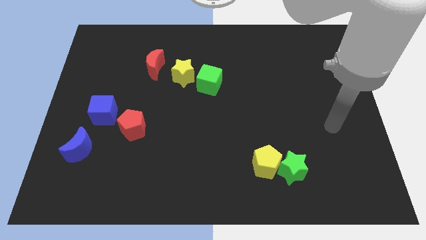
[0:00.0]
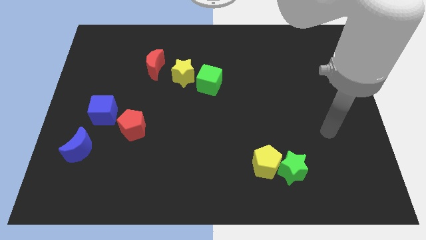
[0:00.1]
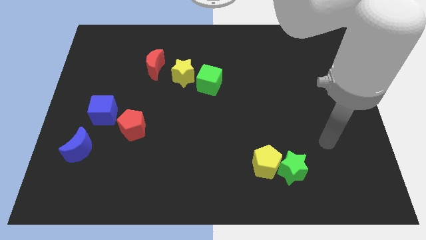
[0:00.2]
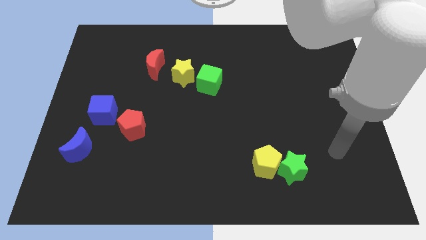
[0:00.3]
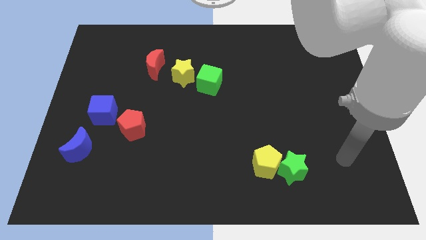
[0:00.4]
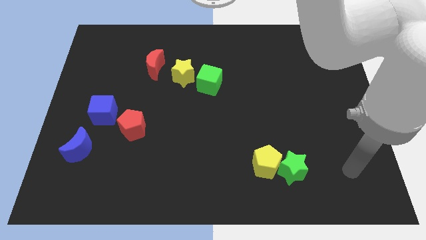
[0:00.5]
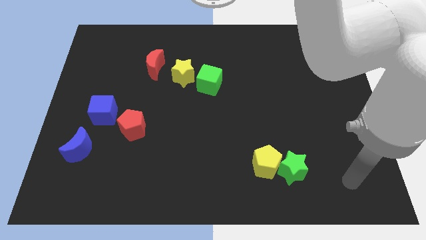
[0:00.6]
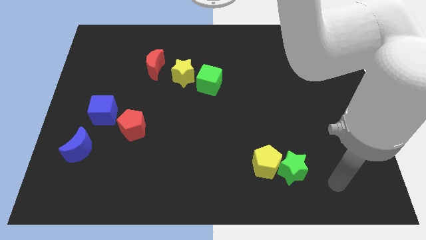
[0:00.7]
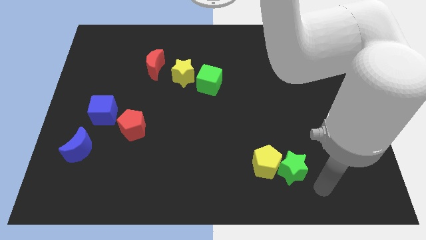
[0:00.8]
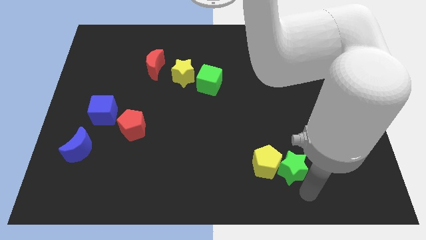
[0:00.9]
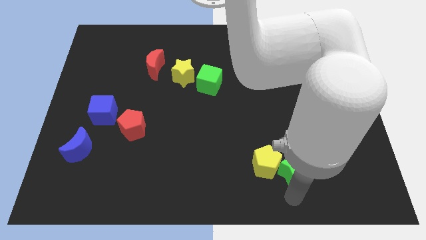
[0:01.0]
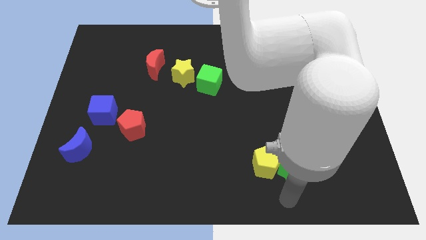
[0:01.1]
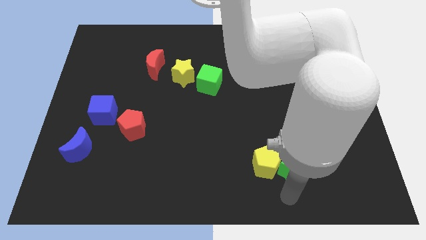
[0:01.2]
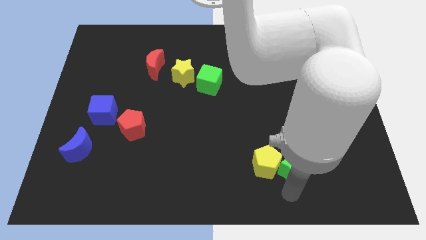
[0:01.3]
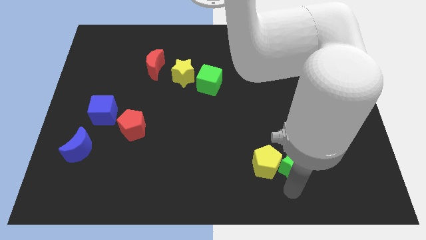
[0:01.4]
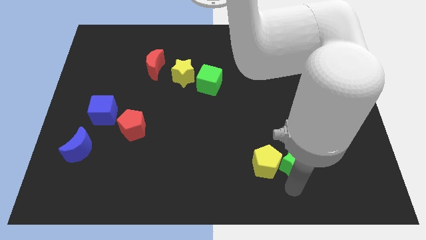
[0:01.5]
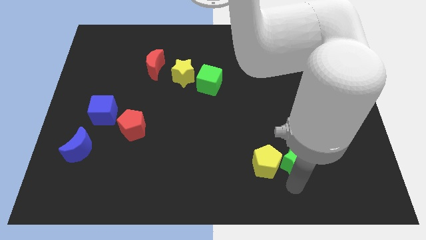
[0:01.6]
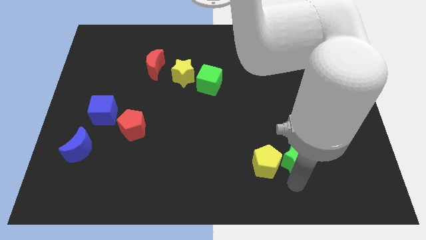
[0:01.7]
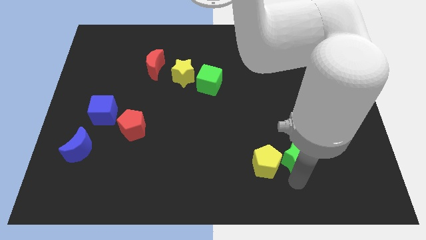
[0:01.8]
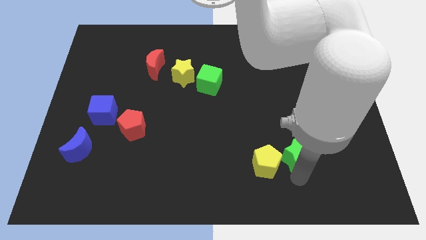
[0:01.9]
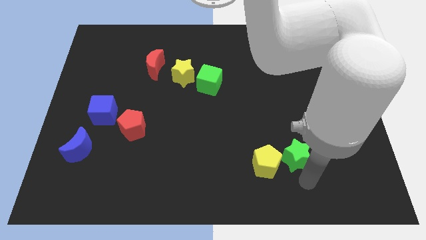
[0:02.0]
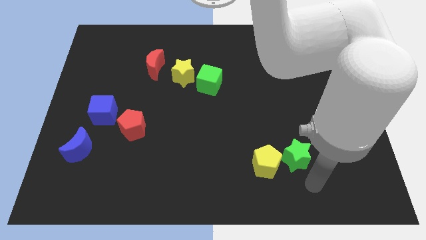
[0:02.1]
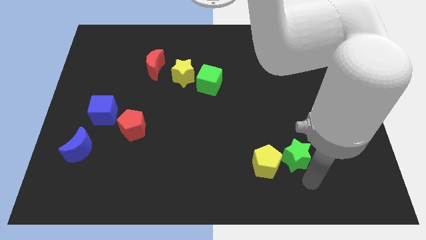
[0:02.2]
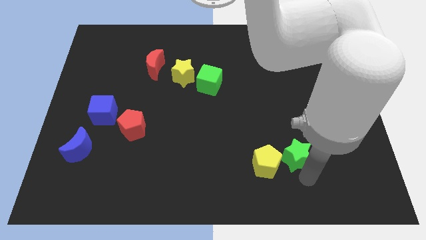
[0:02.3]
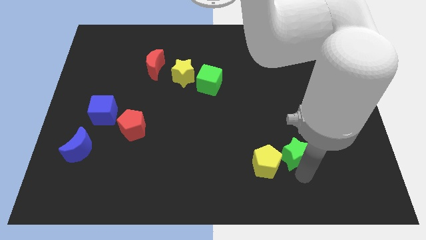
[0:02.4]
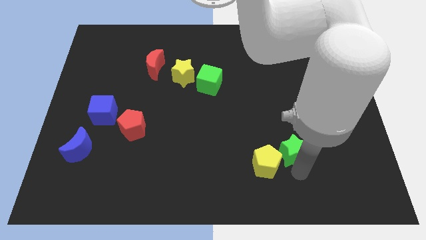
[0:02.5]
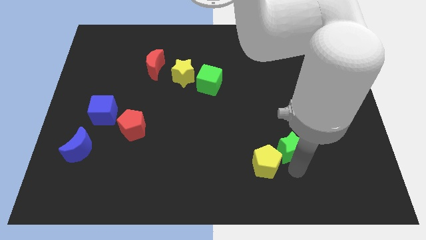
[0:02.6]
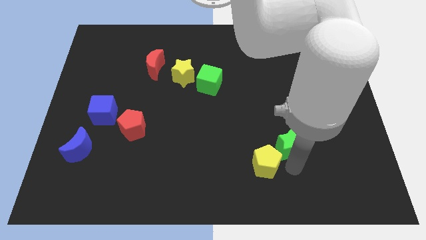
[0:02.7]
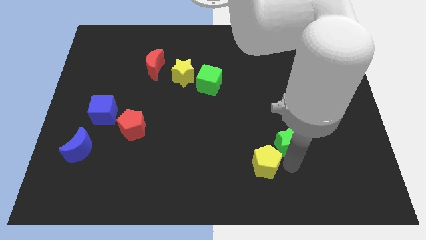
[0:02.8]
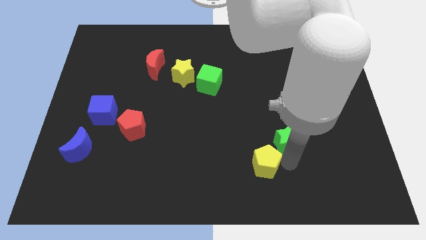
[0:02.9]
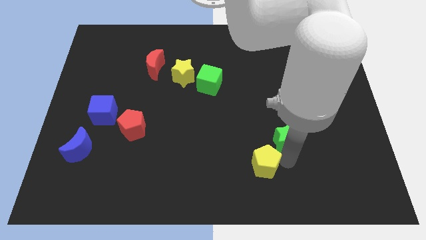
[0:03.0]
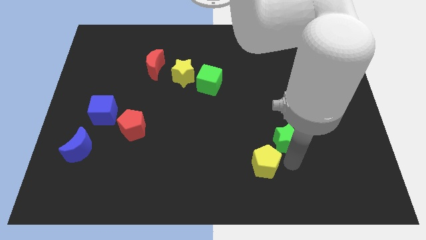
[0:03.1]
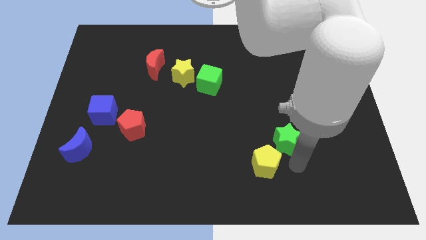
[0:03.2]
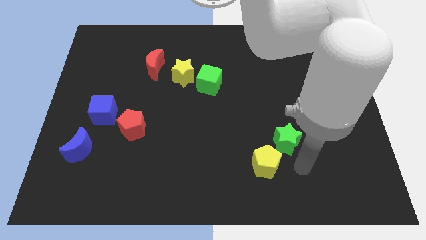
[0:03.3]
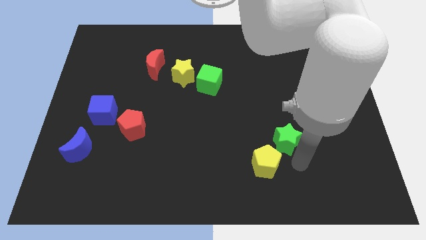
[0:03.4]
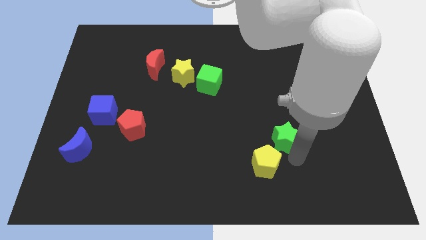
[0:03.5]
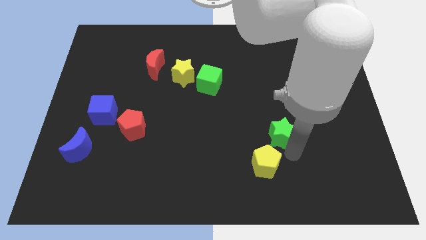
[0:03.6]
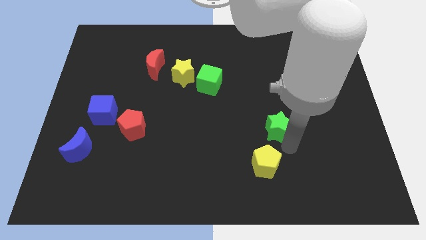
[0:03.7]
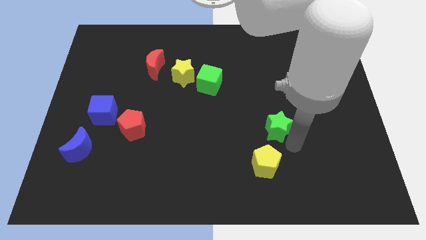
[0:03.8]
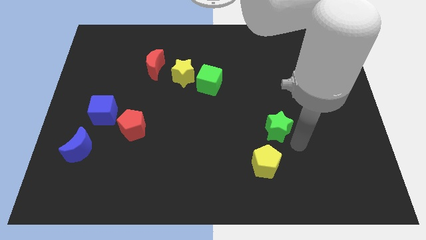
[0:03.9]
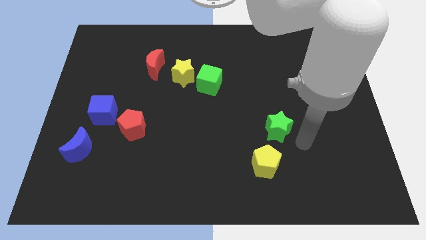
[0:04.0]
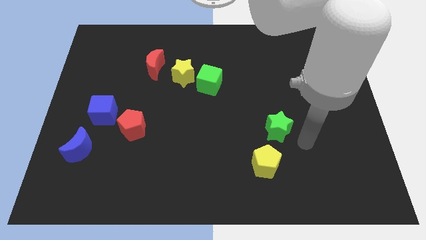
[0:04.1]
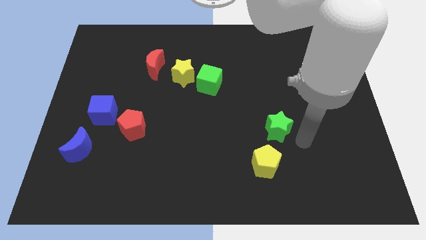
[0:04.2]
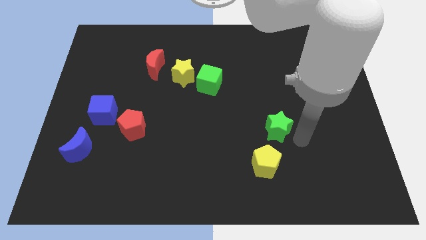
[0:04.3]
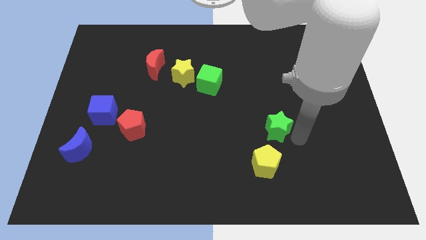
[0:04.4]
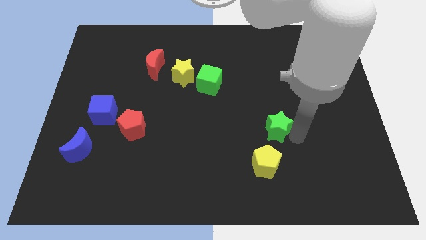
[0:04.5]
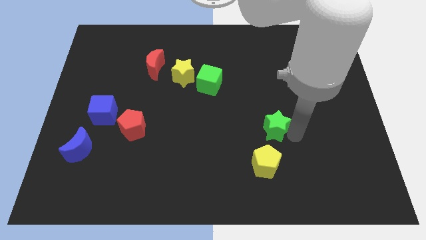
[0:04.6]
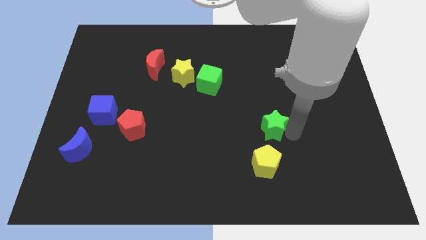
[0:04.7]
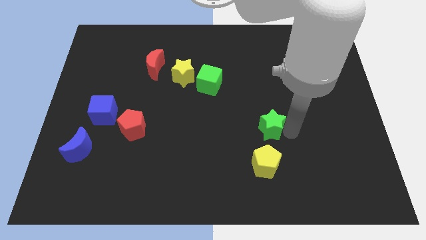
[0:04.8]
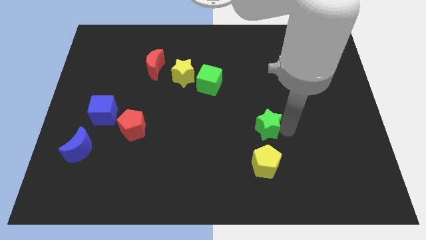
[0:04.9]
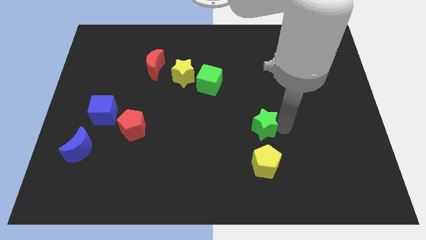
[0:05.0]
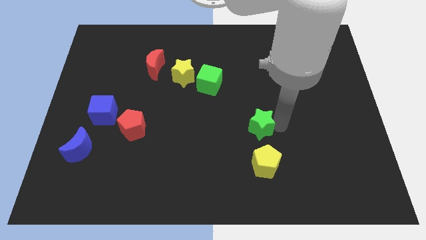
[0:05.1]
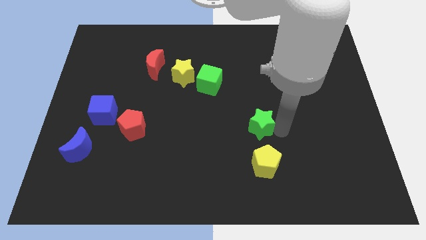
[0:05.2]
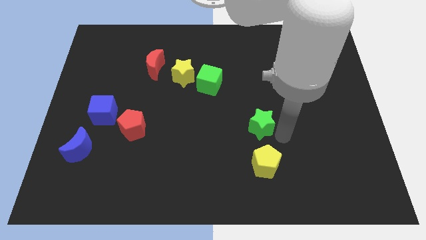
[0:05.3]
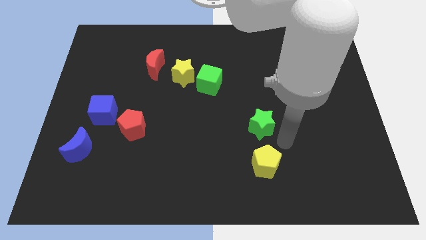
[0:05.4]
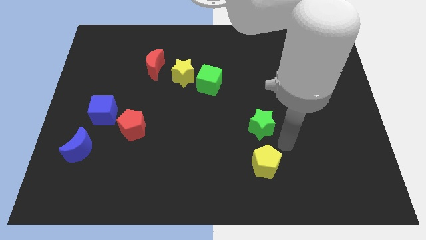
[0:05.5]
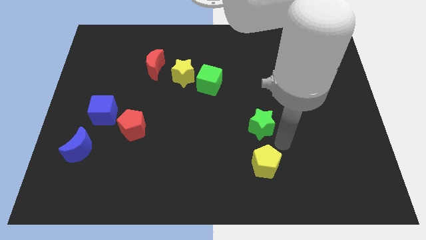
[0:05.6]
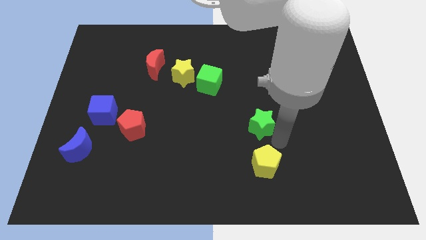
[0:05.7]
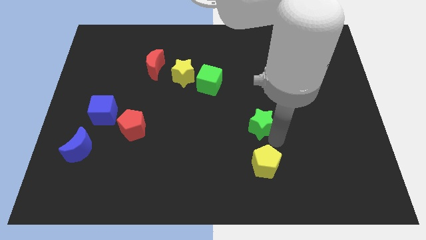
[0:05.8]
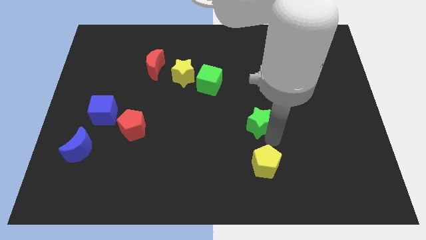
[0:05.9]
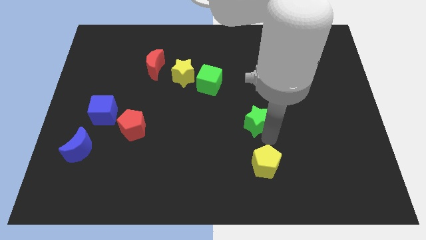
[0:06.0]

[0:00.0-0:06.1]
slide the green star to the center

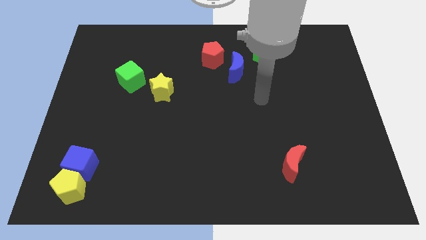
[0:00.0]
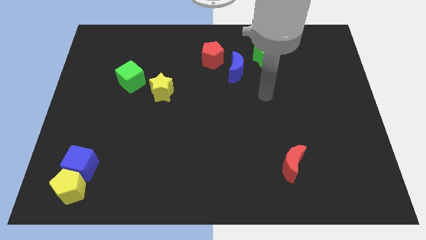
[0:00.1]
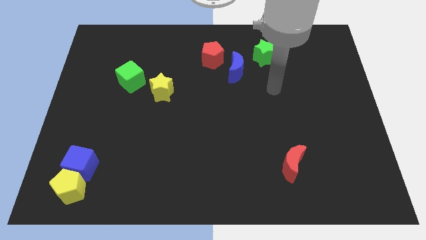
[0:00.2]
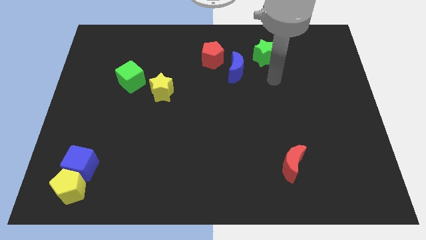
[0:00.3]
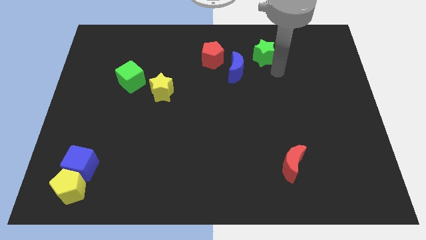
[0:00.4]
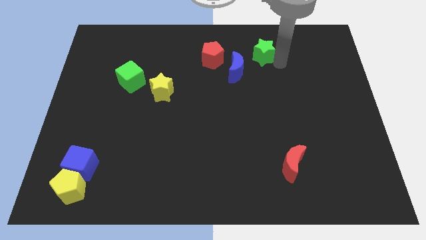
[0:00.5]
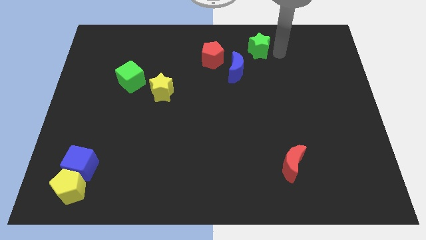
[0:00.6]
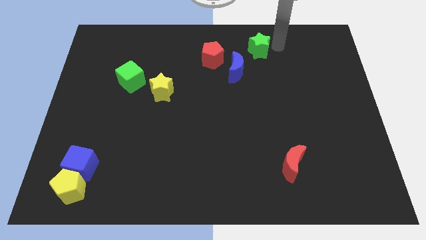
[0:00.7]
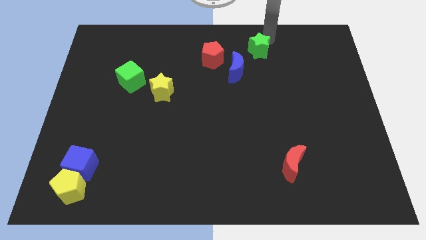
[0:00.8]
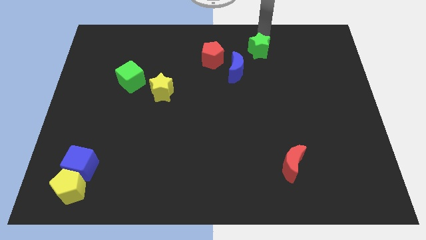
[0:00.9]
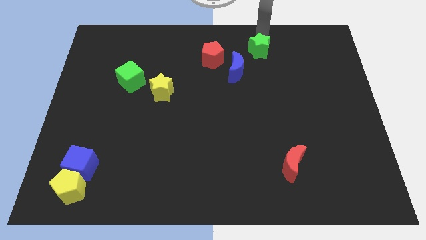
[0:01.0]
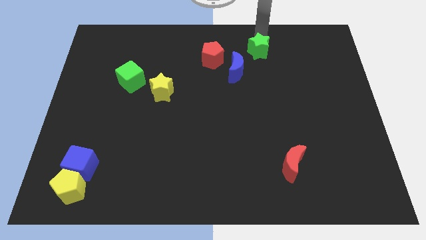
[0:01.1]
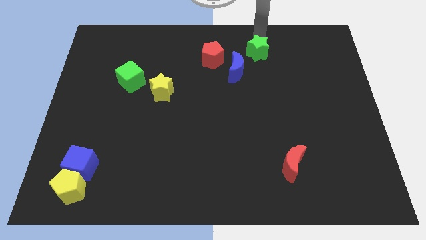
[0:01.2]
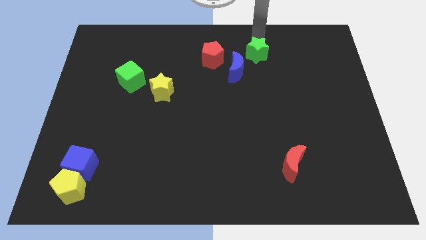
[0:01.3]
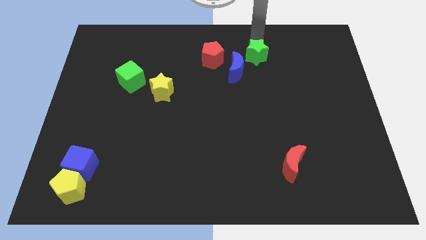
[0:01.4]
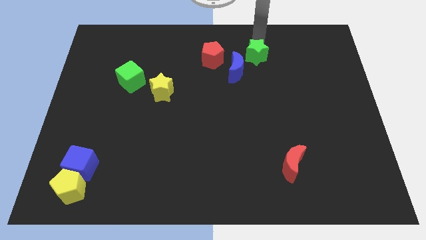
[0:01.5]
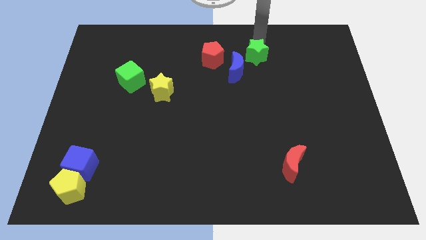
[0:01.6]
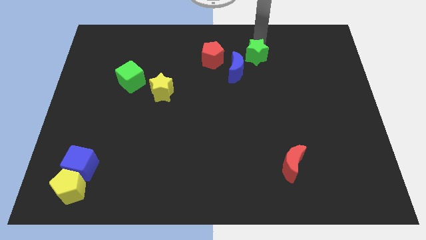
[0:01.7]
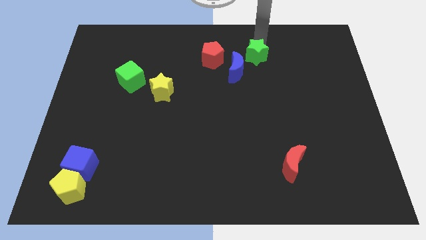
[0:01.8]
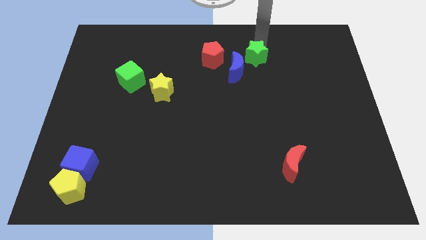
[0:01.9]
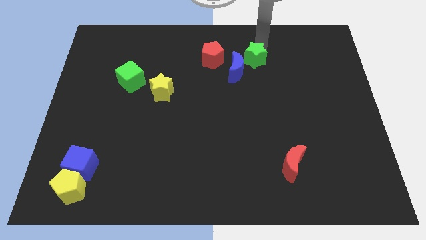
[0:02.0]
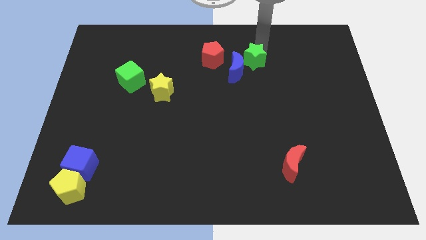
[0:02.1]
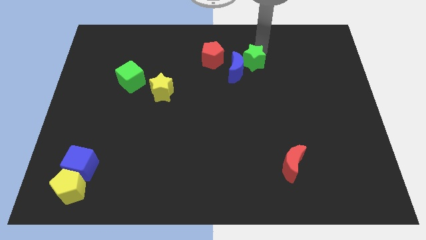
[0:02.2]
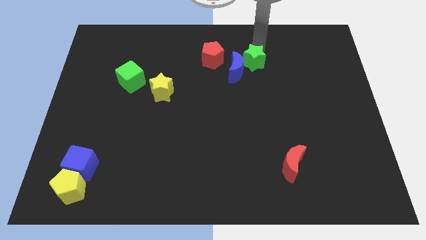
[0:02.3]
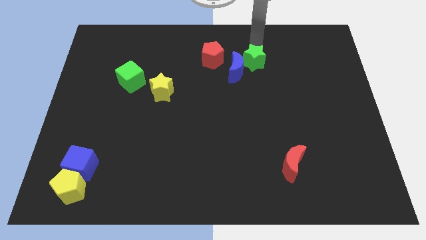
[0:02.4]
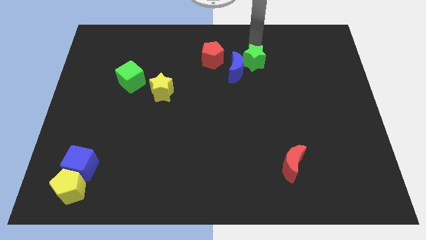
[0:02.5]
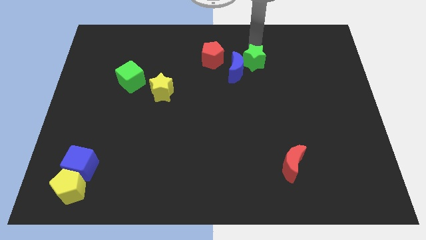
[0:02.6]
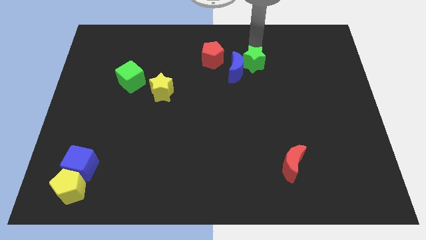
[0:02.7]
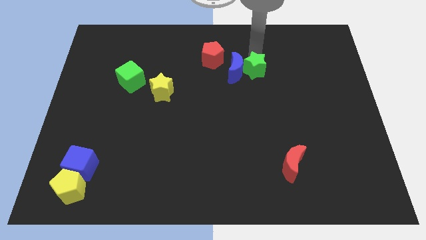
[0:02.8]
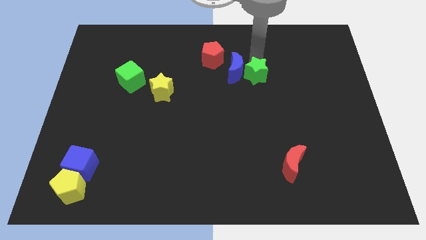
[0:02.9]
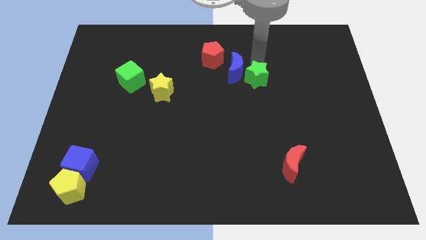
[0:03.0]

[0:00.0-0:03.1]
move the green star to the center of the board
